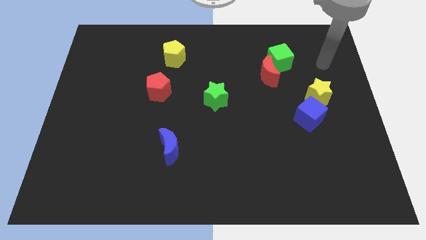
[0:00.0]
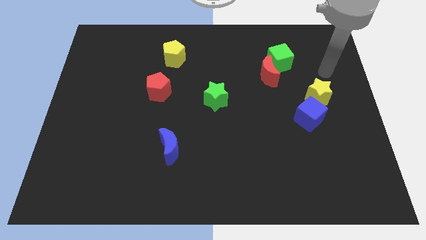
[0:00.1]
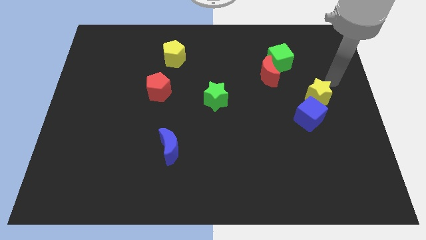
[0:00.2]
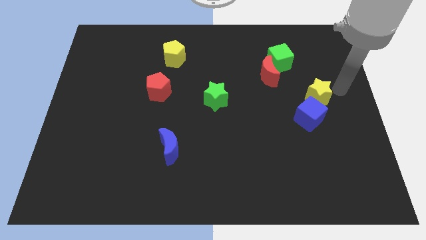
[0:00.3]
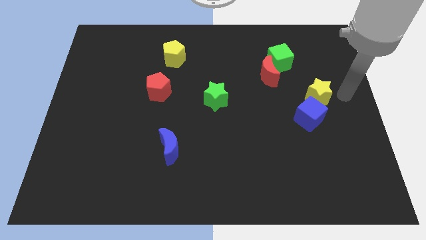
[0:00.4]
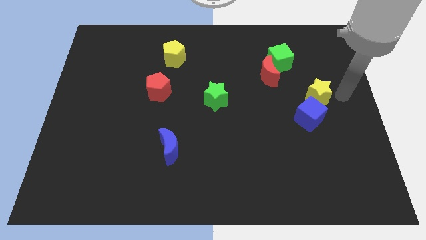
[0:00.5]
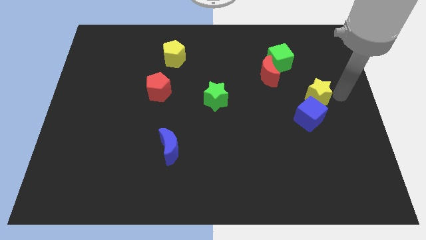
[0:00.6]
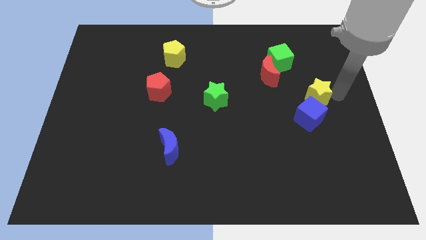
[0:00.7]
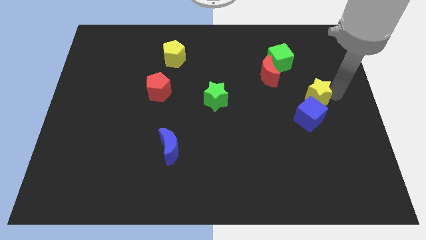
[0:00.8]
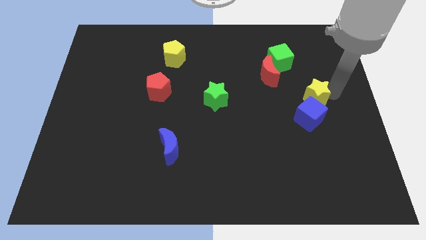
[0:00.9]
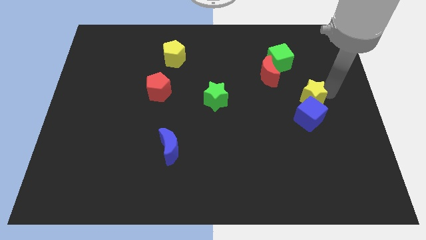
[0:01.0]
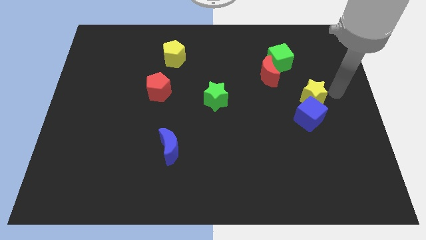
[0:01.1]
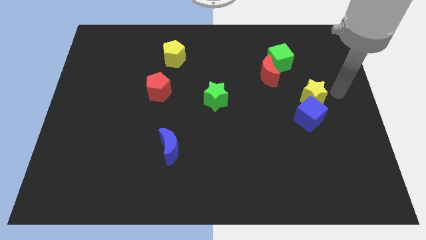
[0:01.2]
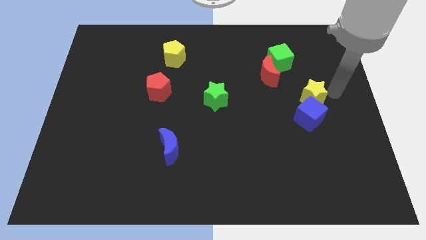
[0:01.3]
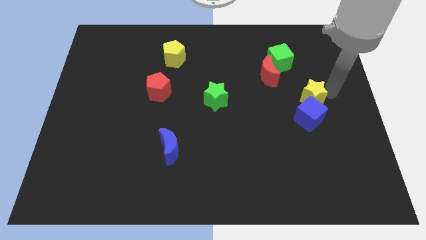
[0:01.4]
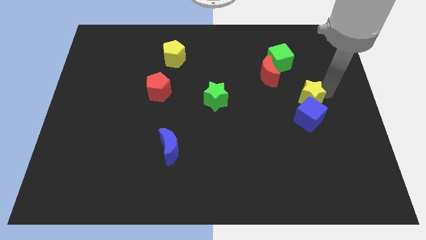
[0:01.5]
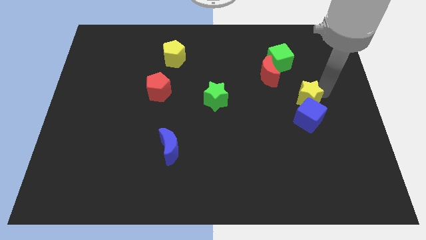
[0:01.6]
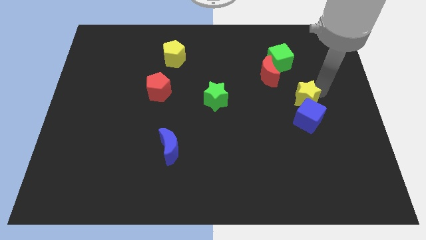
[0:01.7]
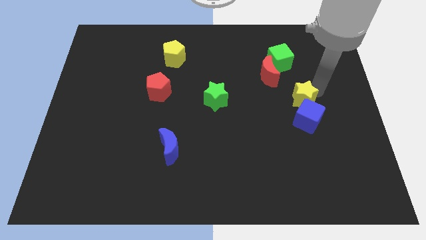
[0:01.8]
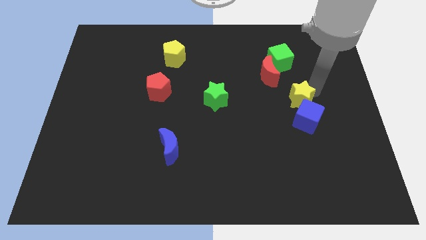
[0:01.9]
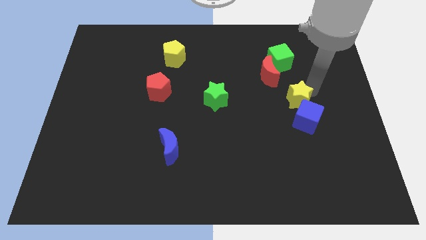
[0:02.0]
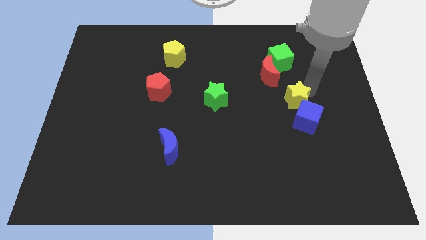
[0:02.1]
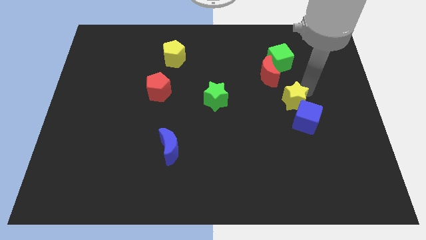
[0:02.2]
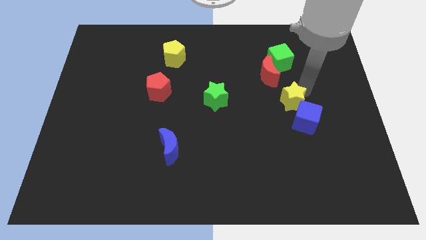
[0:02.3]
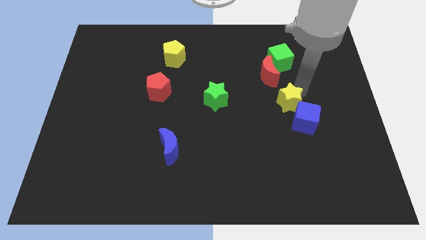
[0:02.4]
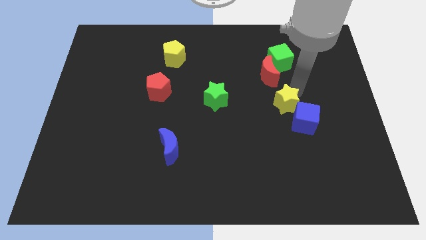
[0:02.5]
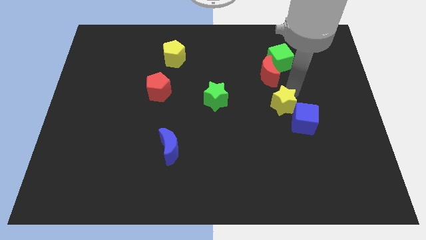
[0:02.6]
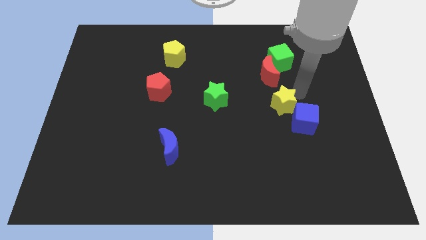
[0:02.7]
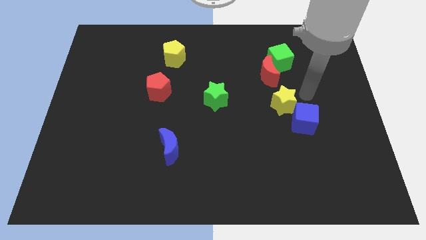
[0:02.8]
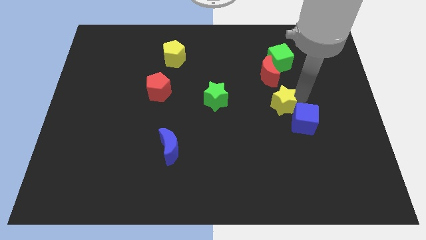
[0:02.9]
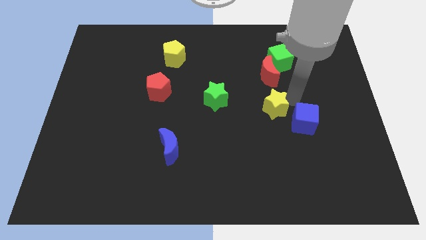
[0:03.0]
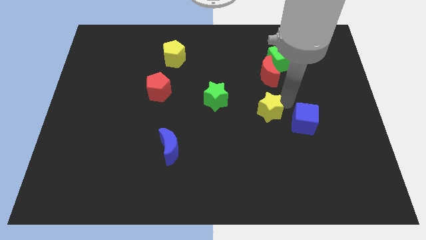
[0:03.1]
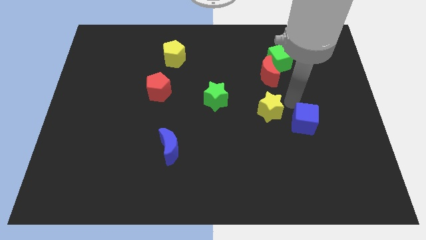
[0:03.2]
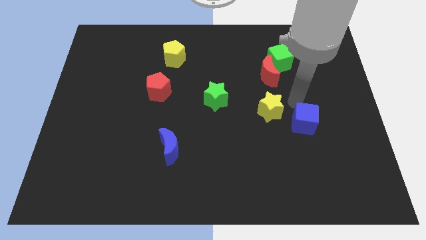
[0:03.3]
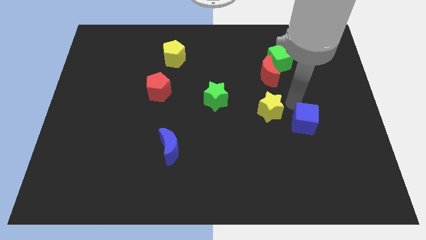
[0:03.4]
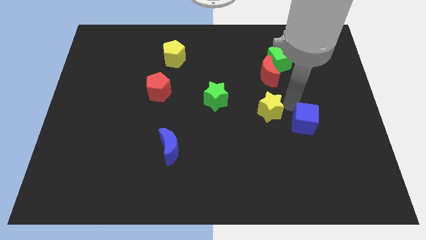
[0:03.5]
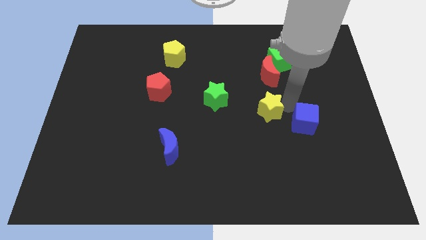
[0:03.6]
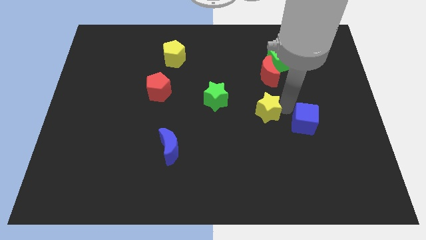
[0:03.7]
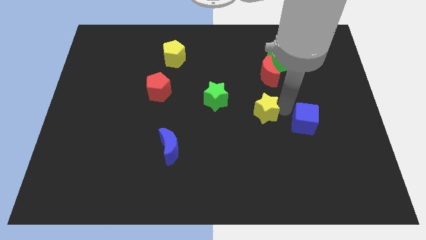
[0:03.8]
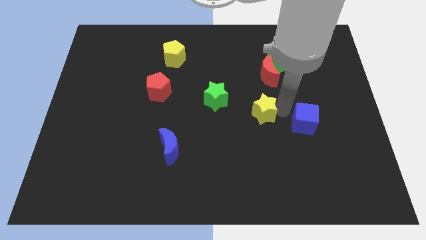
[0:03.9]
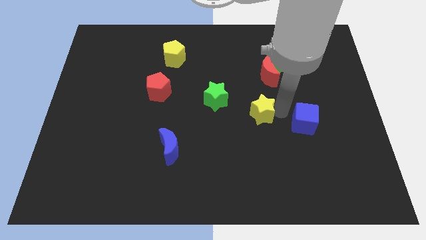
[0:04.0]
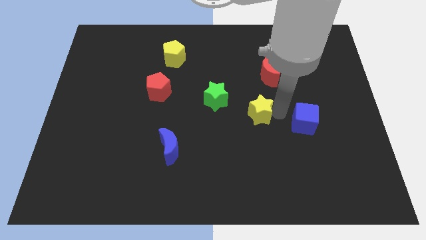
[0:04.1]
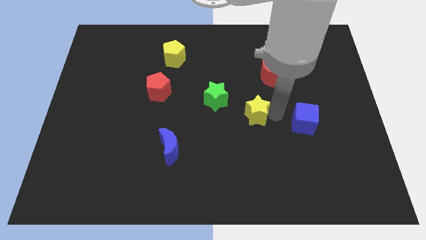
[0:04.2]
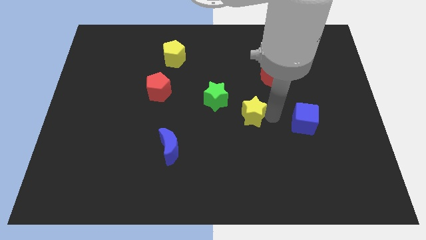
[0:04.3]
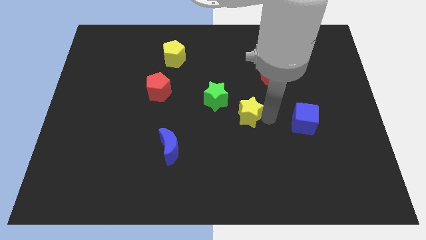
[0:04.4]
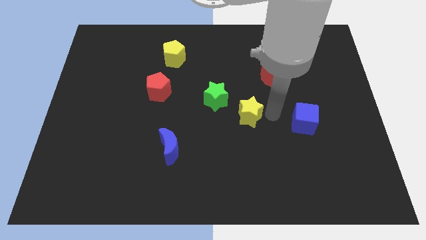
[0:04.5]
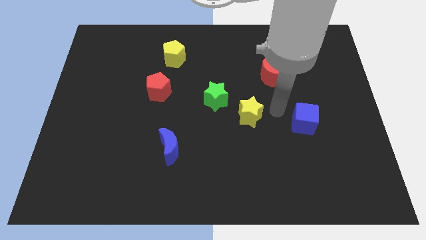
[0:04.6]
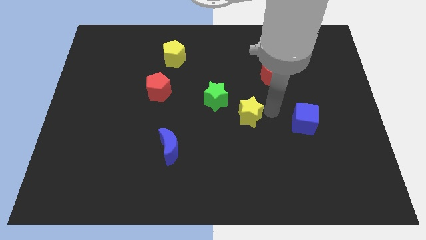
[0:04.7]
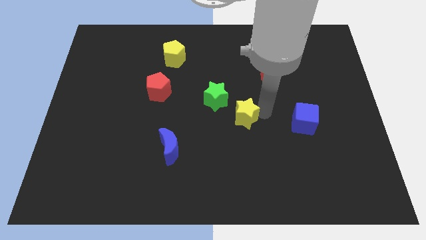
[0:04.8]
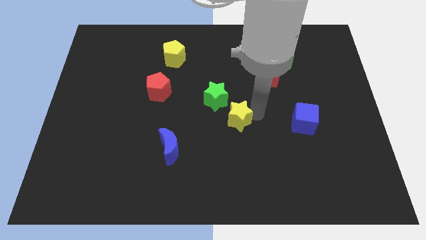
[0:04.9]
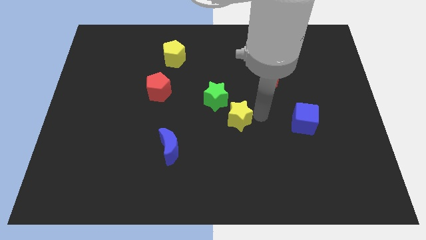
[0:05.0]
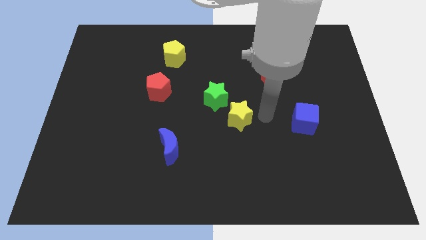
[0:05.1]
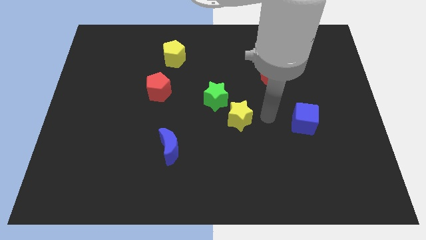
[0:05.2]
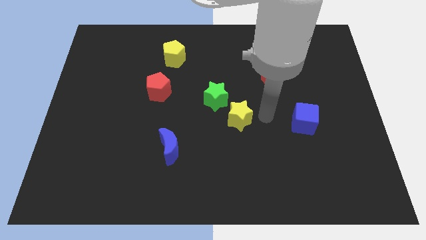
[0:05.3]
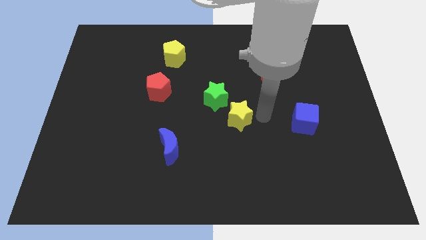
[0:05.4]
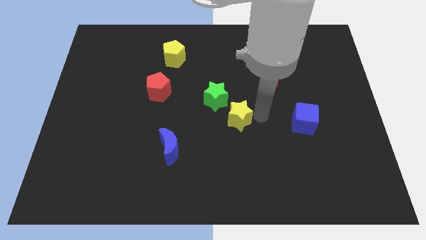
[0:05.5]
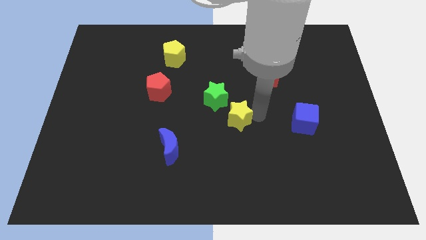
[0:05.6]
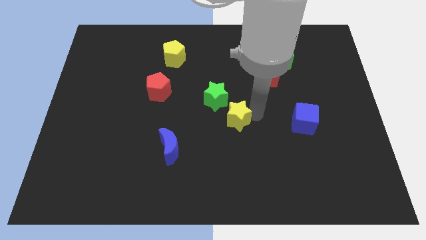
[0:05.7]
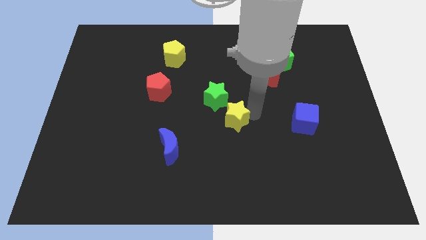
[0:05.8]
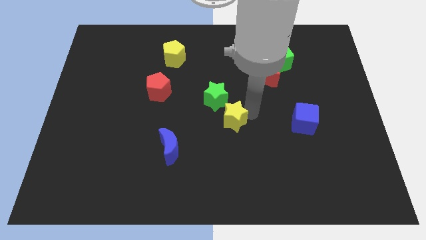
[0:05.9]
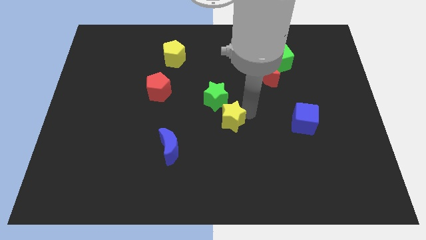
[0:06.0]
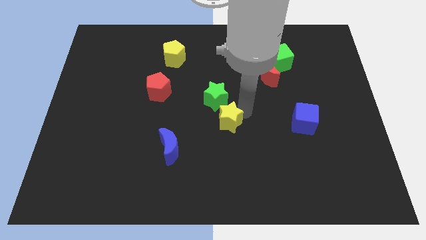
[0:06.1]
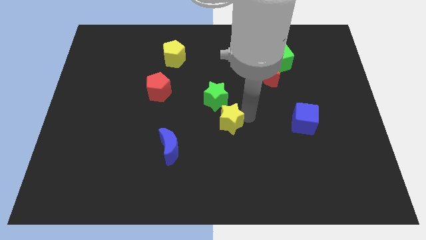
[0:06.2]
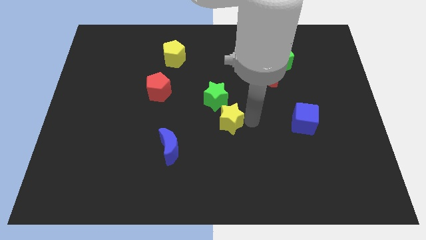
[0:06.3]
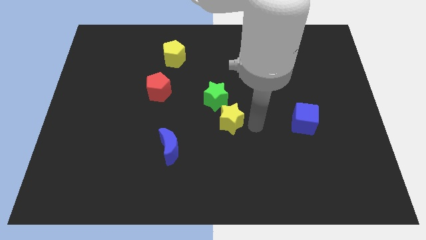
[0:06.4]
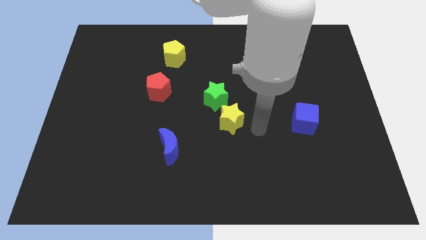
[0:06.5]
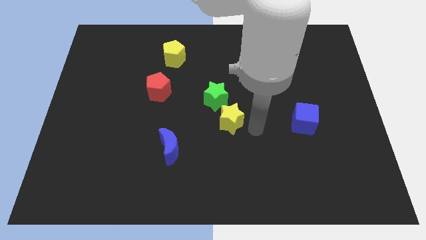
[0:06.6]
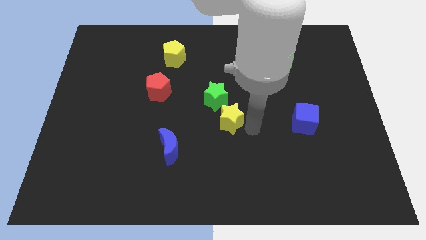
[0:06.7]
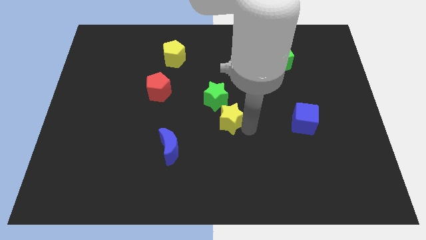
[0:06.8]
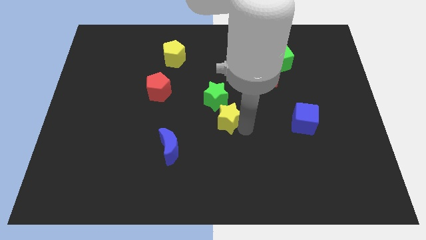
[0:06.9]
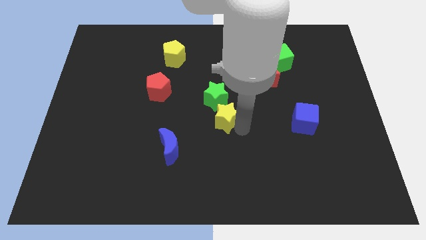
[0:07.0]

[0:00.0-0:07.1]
slide the yellow star left

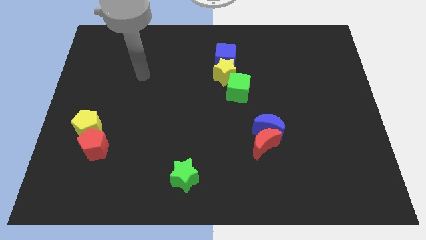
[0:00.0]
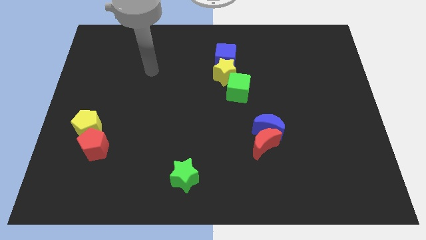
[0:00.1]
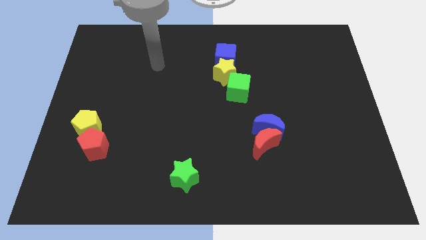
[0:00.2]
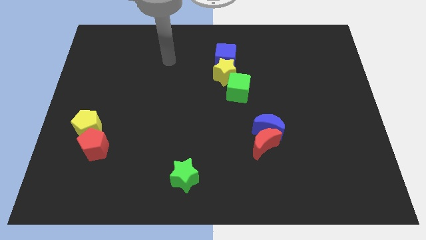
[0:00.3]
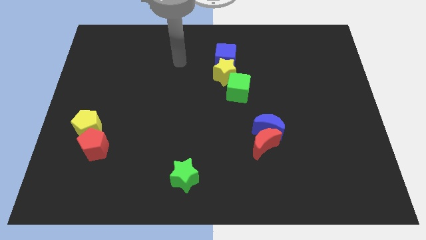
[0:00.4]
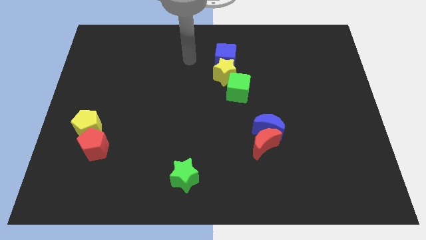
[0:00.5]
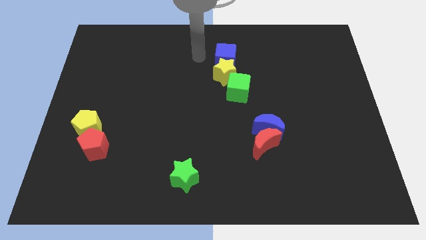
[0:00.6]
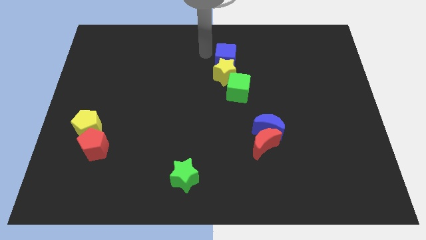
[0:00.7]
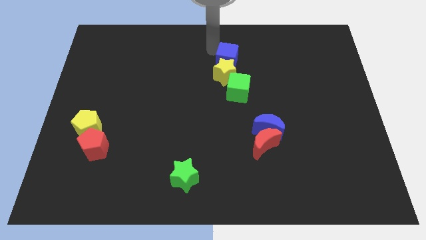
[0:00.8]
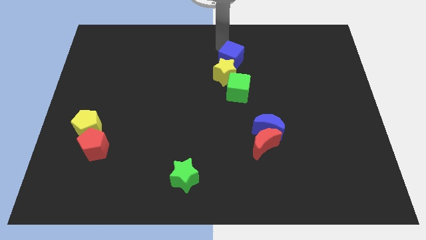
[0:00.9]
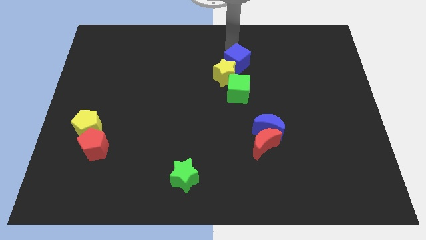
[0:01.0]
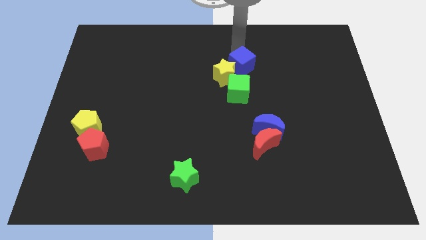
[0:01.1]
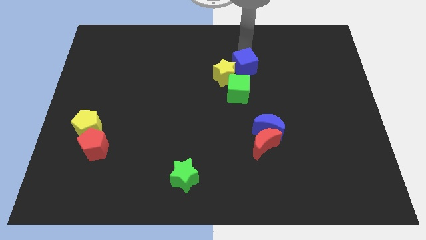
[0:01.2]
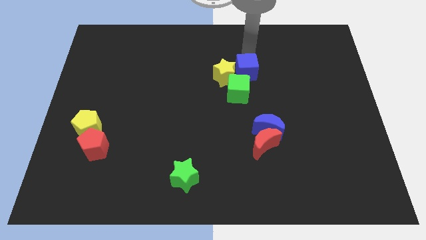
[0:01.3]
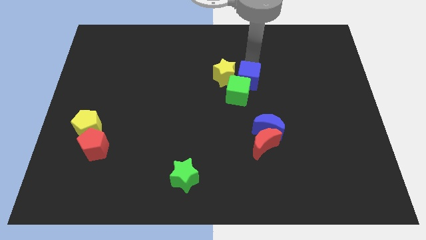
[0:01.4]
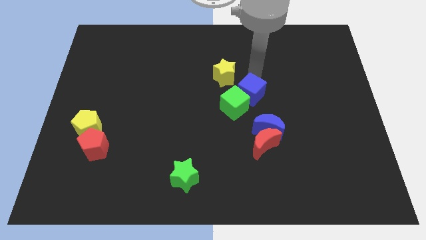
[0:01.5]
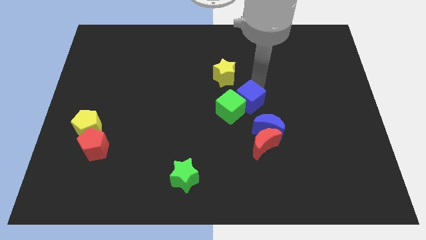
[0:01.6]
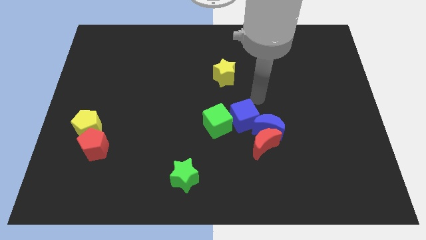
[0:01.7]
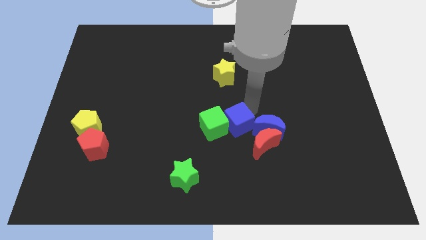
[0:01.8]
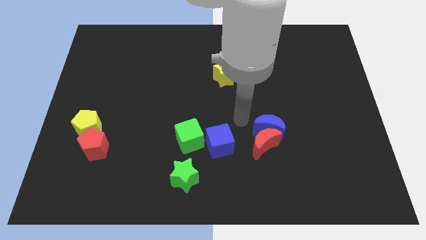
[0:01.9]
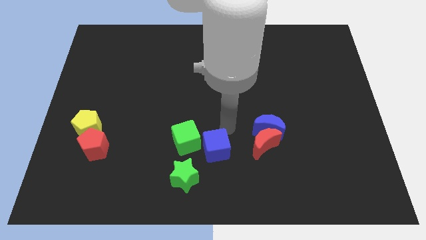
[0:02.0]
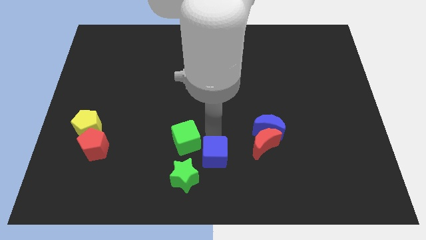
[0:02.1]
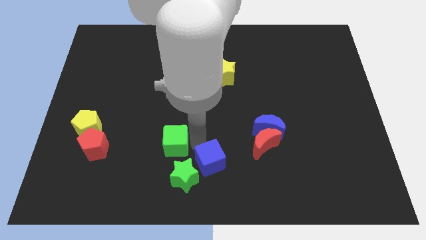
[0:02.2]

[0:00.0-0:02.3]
move the green cube downwards and to the left diagonally
